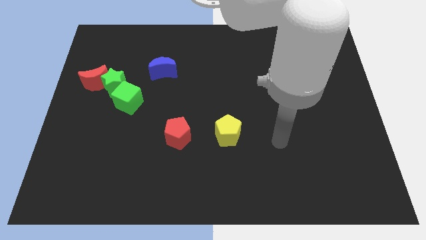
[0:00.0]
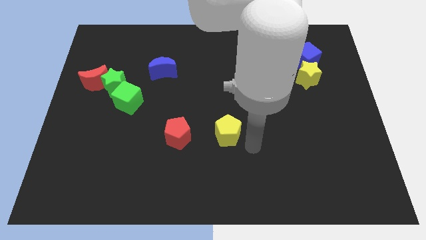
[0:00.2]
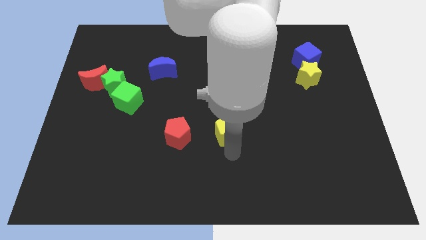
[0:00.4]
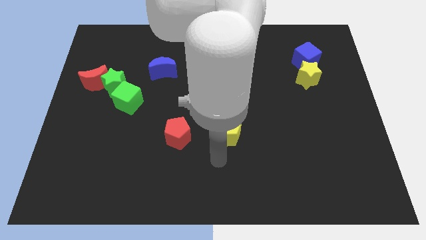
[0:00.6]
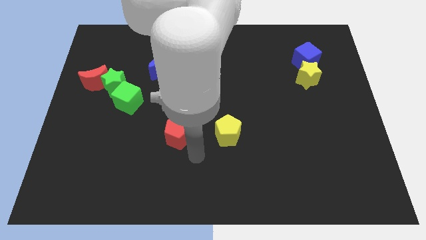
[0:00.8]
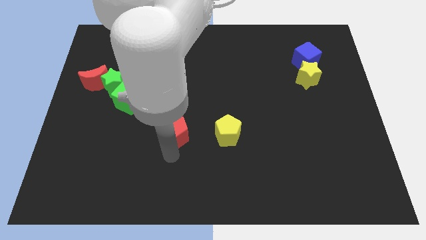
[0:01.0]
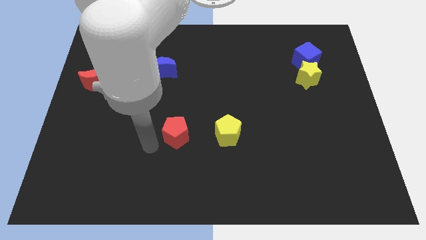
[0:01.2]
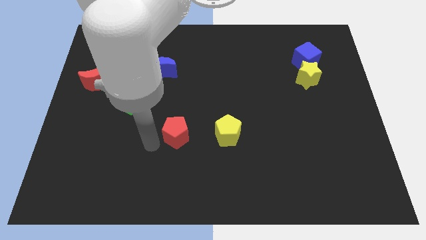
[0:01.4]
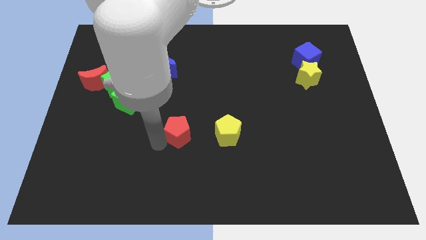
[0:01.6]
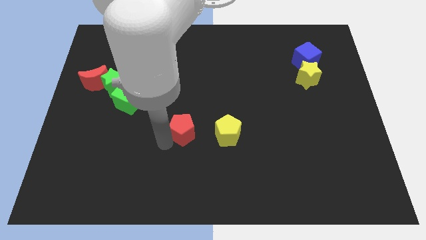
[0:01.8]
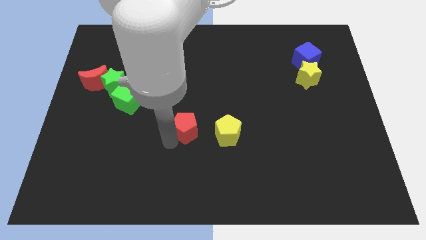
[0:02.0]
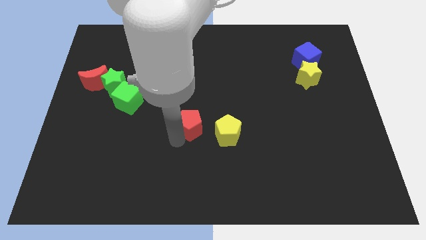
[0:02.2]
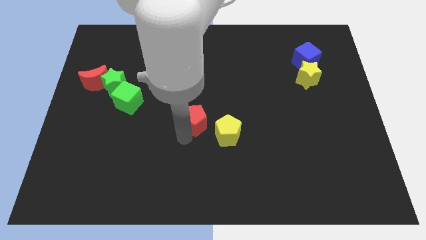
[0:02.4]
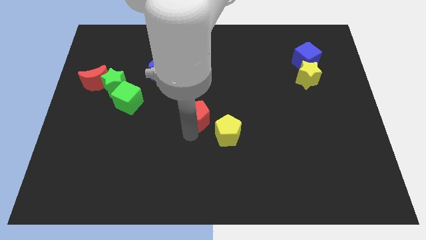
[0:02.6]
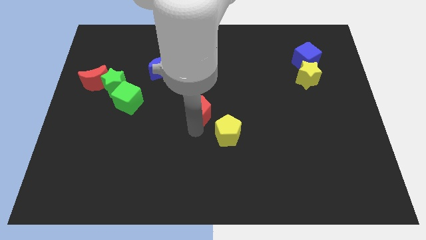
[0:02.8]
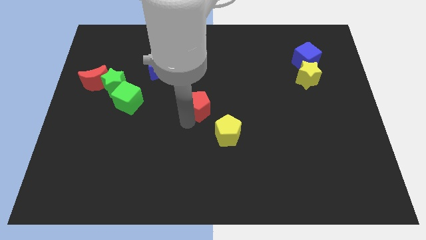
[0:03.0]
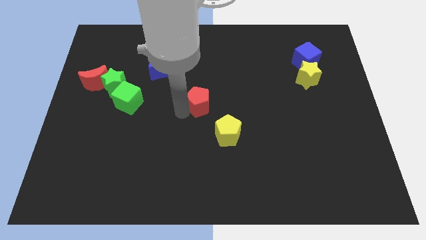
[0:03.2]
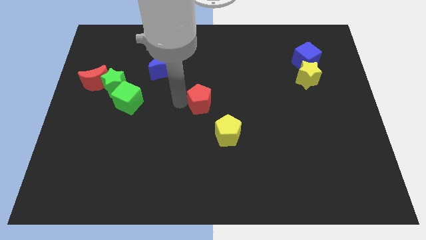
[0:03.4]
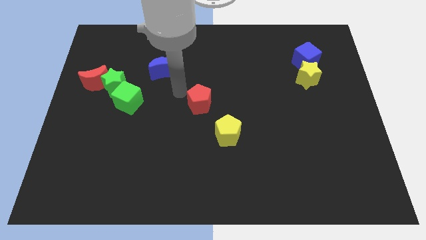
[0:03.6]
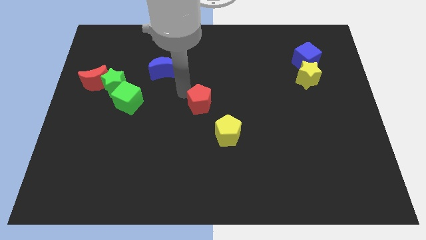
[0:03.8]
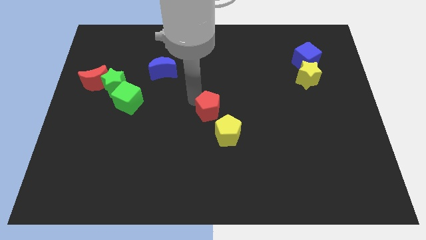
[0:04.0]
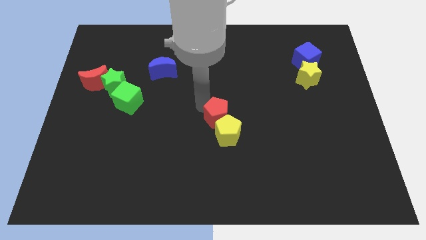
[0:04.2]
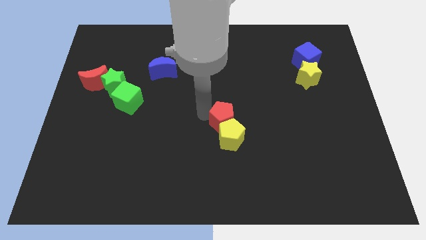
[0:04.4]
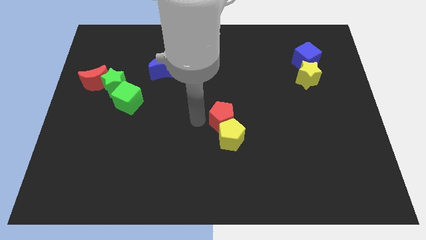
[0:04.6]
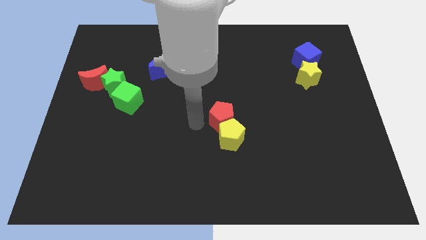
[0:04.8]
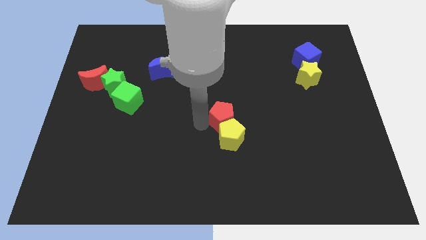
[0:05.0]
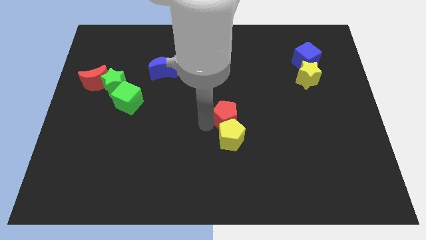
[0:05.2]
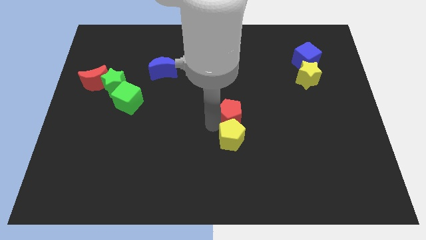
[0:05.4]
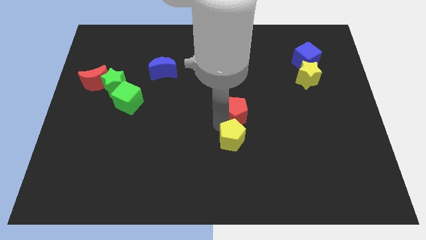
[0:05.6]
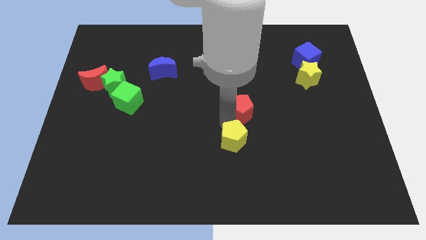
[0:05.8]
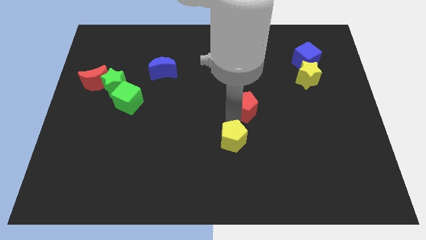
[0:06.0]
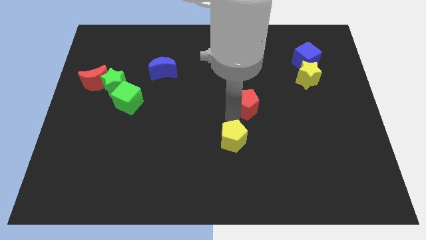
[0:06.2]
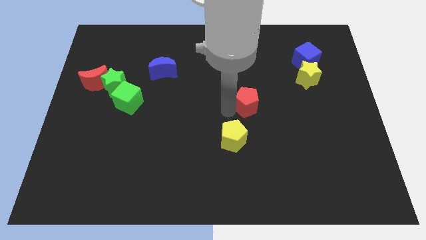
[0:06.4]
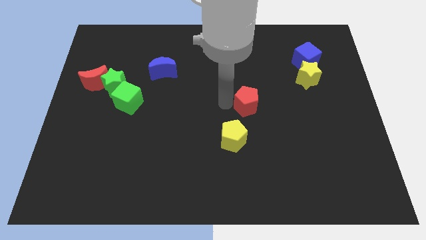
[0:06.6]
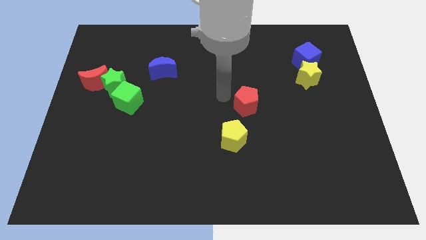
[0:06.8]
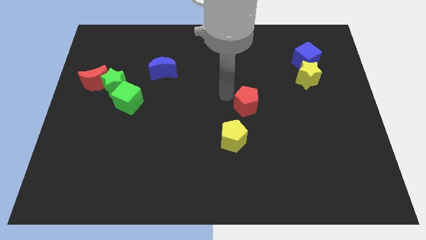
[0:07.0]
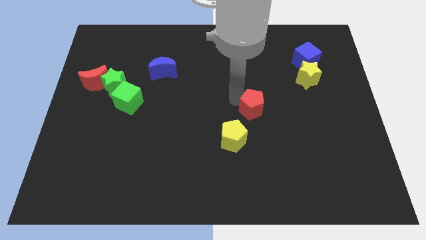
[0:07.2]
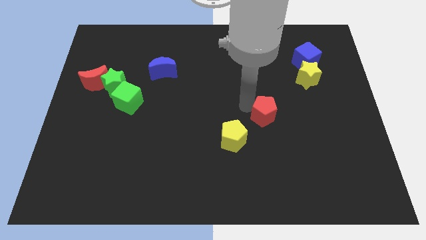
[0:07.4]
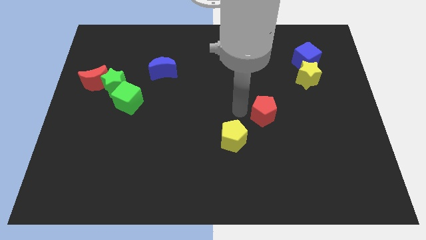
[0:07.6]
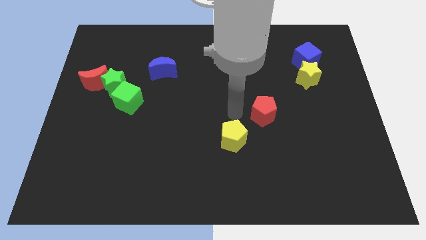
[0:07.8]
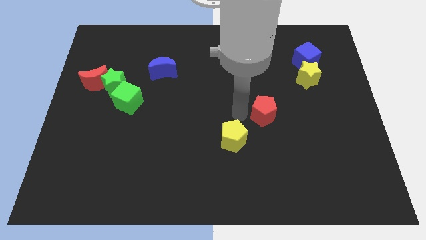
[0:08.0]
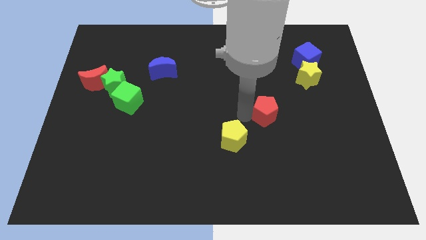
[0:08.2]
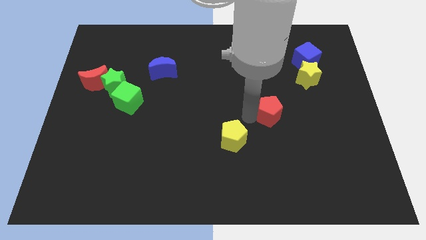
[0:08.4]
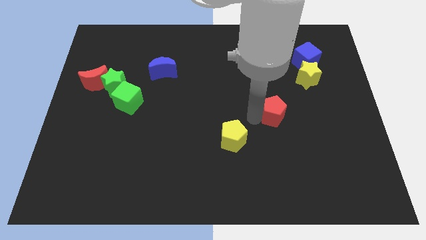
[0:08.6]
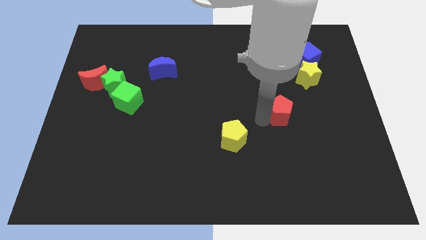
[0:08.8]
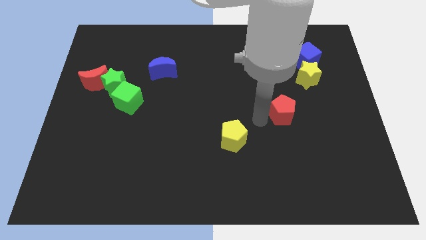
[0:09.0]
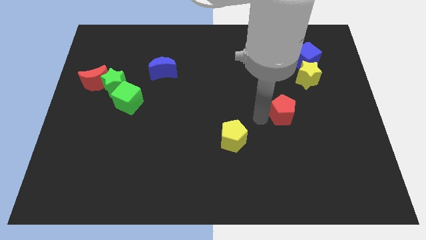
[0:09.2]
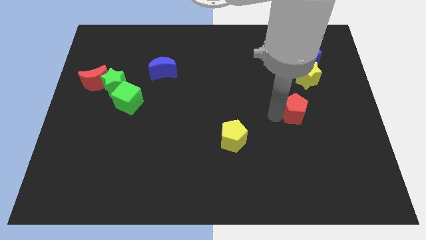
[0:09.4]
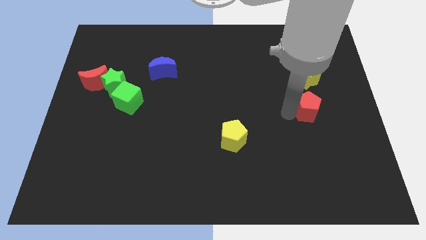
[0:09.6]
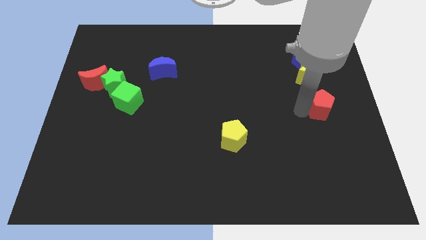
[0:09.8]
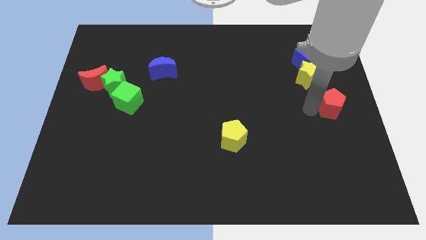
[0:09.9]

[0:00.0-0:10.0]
move the red pentagon to the center right

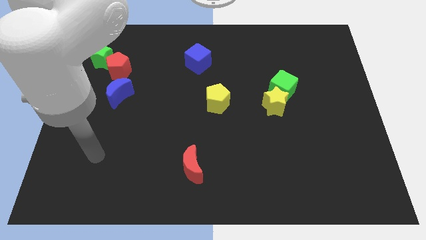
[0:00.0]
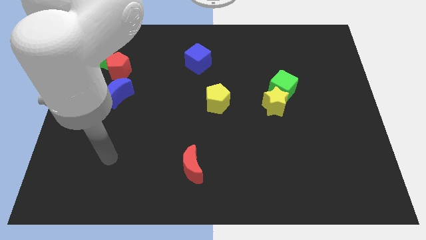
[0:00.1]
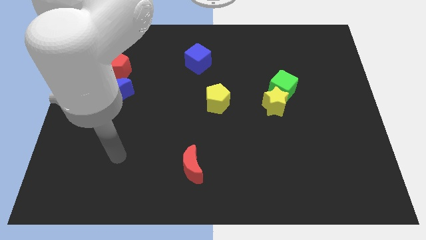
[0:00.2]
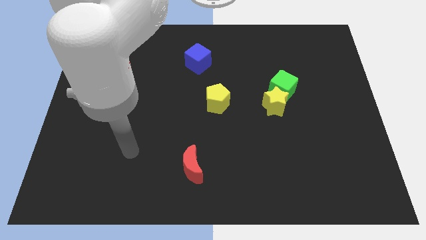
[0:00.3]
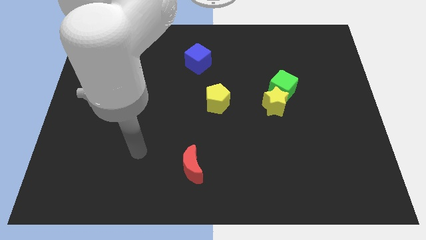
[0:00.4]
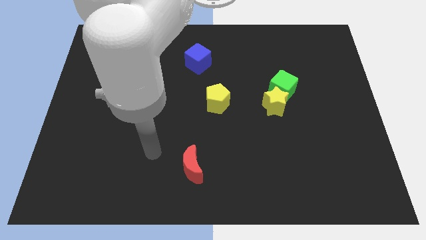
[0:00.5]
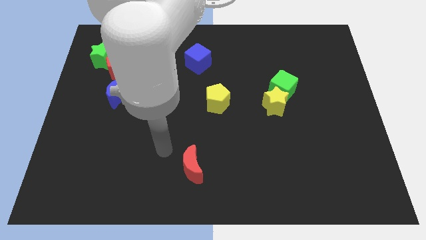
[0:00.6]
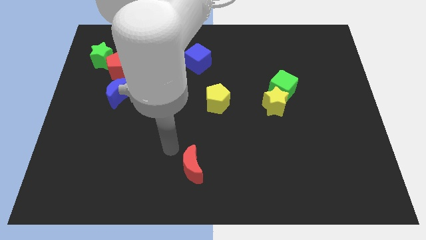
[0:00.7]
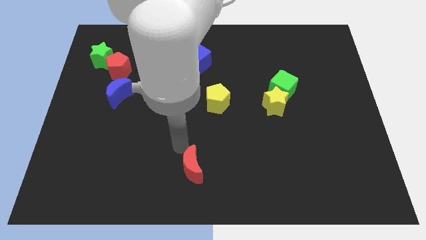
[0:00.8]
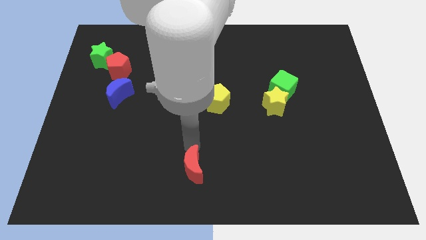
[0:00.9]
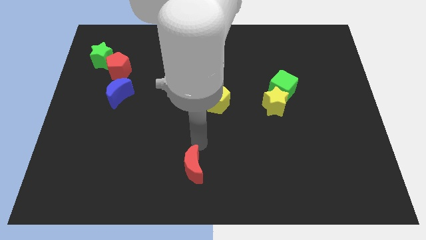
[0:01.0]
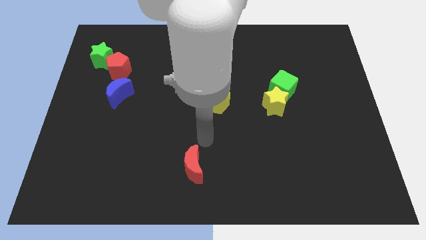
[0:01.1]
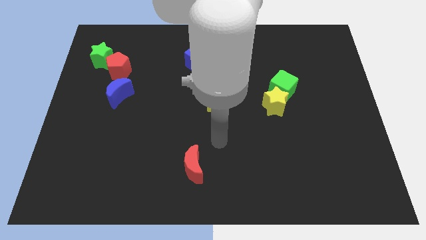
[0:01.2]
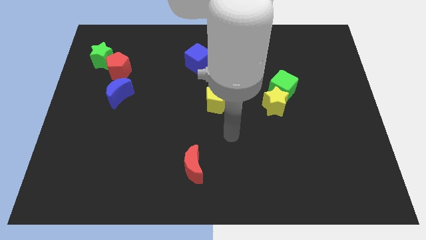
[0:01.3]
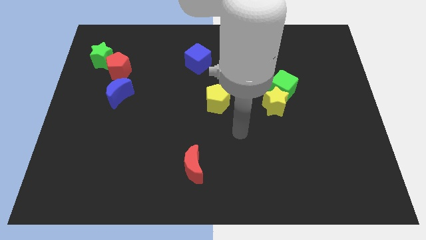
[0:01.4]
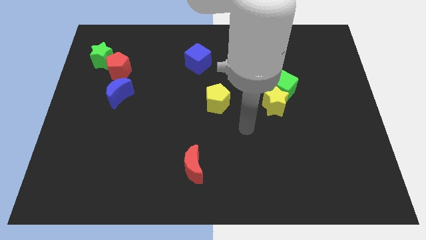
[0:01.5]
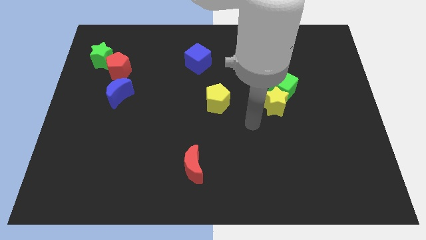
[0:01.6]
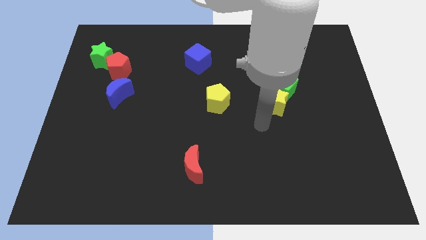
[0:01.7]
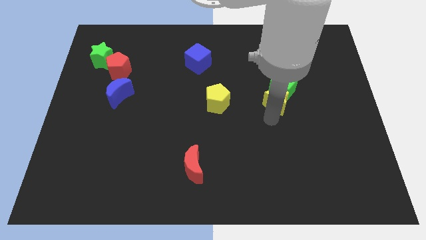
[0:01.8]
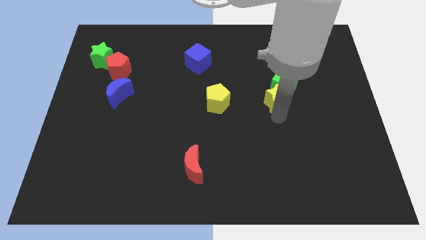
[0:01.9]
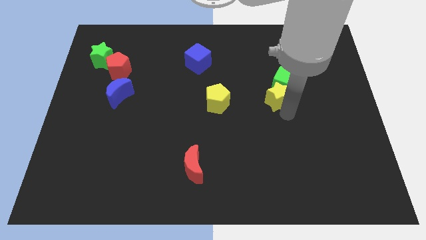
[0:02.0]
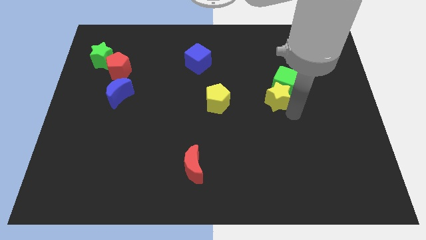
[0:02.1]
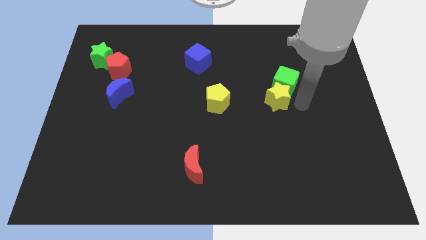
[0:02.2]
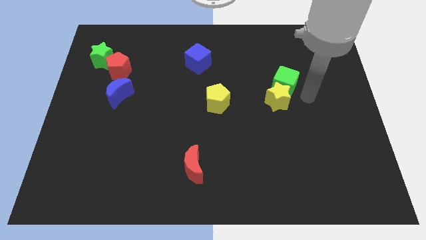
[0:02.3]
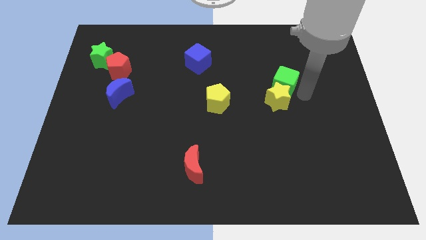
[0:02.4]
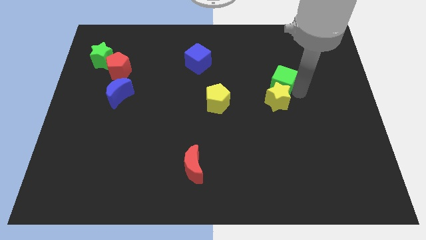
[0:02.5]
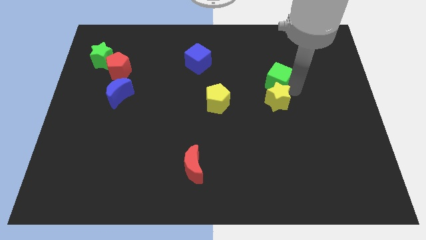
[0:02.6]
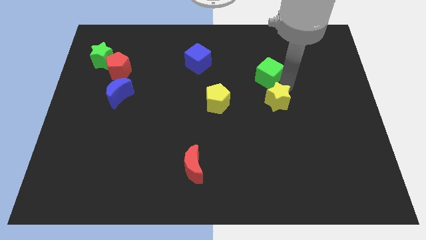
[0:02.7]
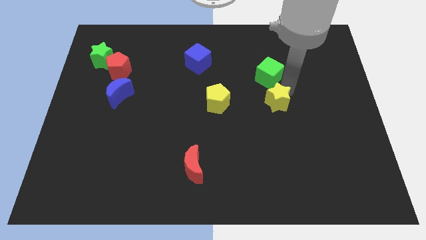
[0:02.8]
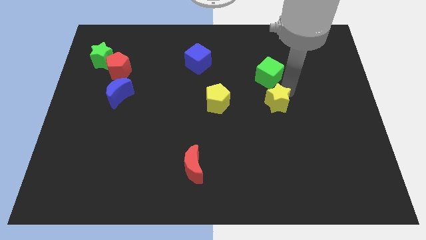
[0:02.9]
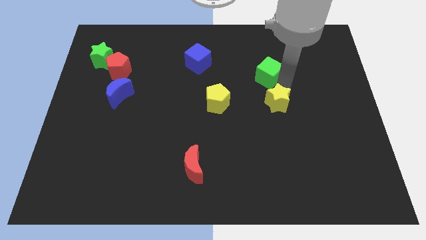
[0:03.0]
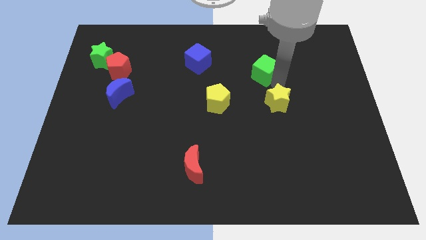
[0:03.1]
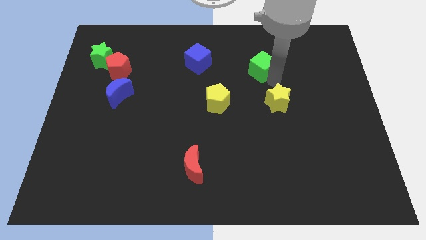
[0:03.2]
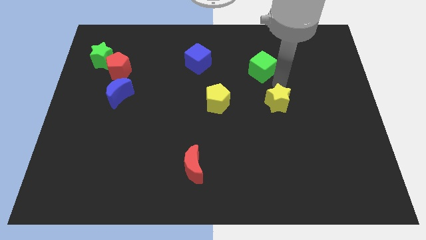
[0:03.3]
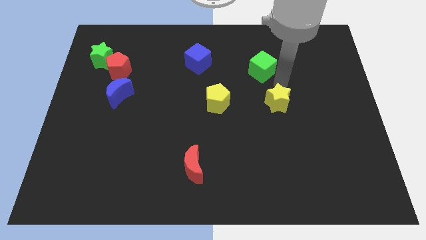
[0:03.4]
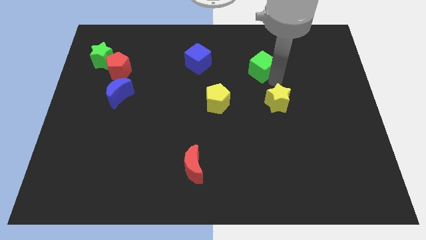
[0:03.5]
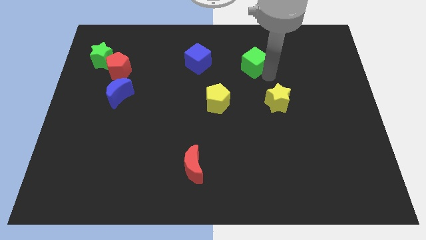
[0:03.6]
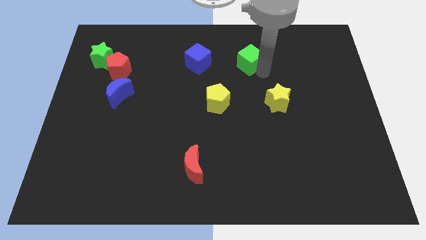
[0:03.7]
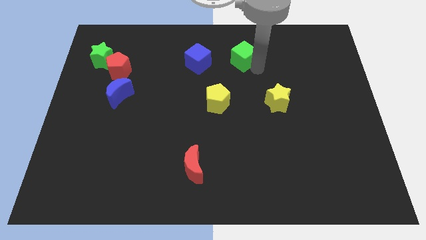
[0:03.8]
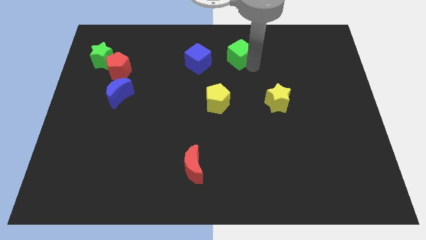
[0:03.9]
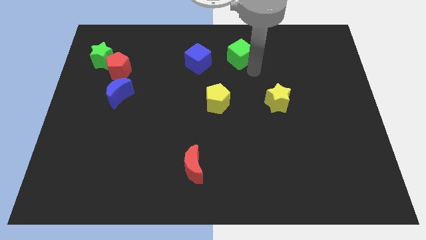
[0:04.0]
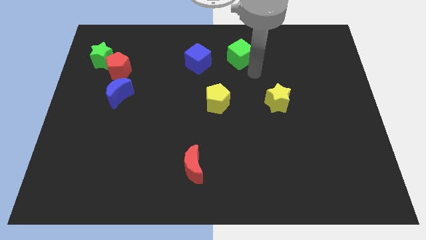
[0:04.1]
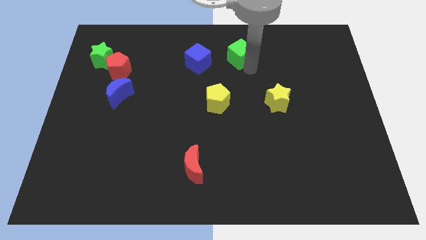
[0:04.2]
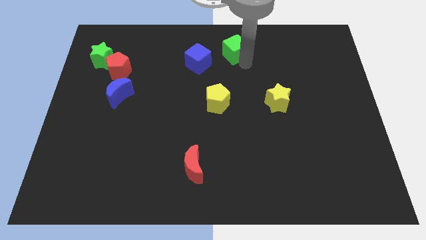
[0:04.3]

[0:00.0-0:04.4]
move the green cube to the towards your base
